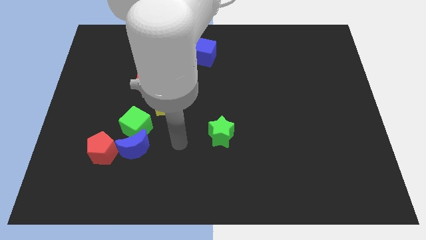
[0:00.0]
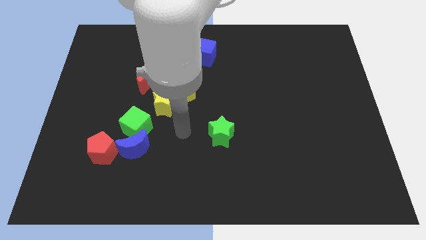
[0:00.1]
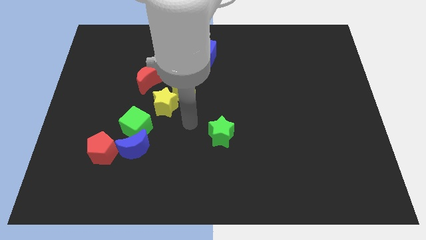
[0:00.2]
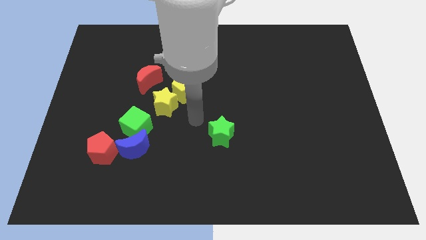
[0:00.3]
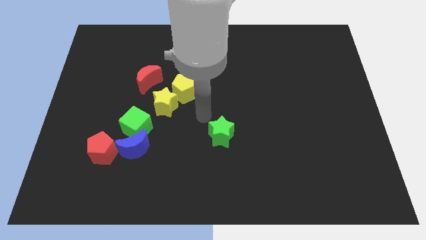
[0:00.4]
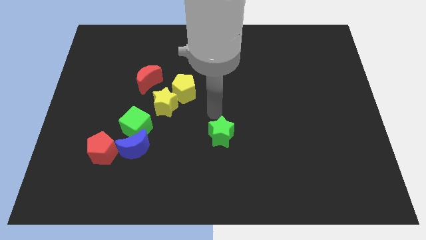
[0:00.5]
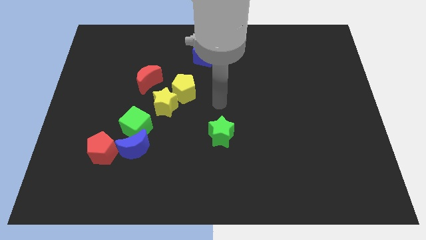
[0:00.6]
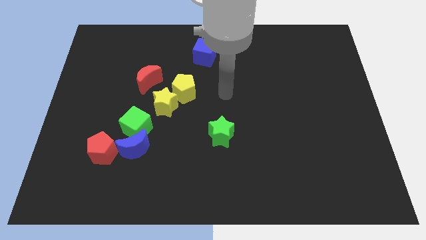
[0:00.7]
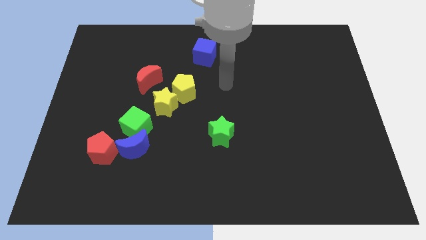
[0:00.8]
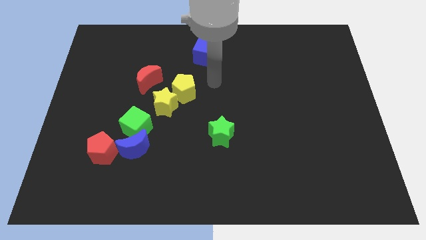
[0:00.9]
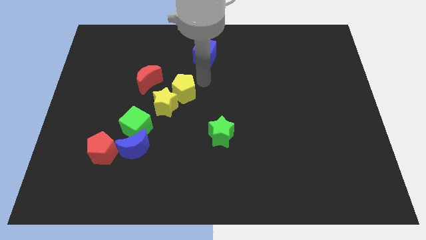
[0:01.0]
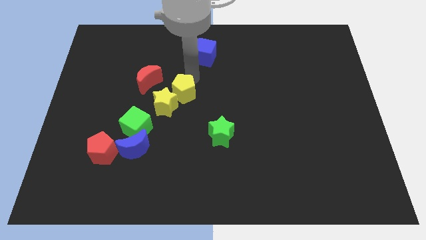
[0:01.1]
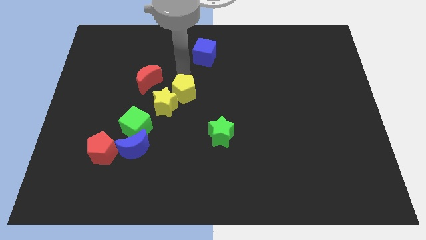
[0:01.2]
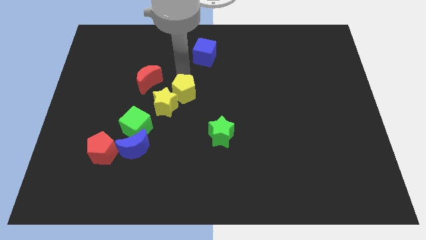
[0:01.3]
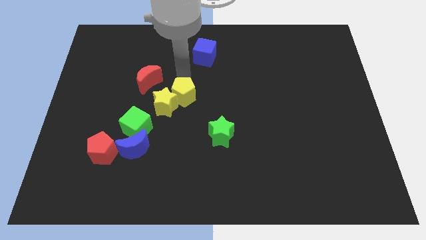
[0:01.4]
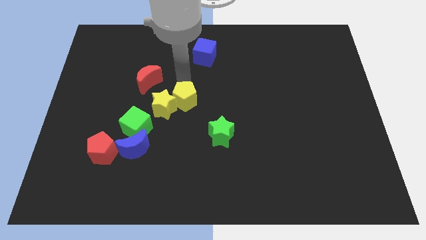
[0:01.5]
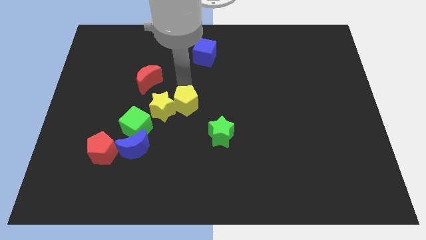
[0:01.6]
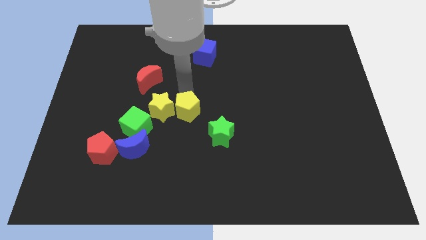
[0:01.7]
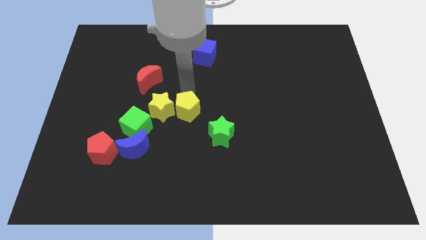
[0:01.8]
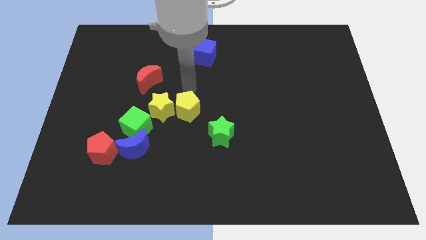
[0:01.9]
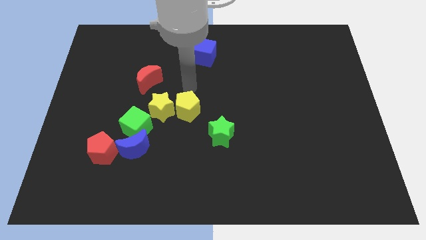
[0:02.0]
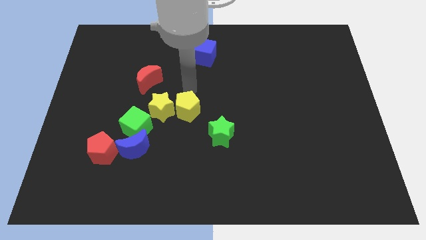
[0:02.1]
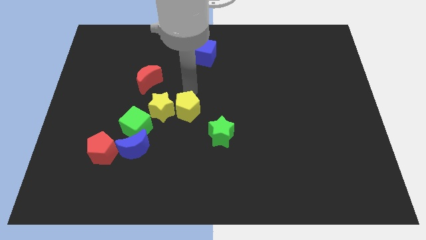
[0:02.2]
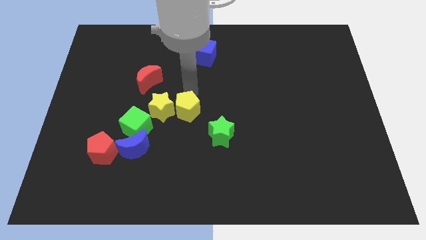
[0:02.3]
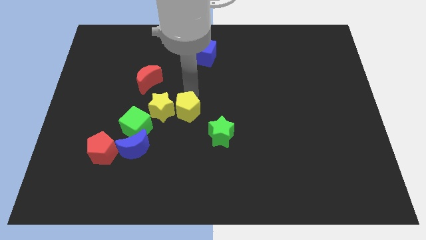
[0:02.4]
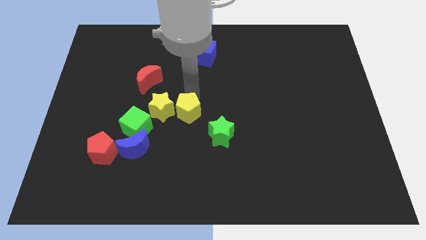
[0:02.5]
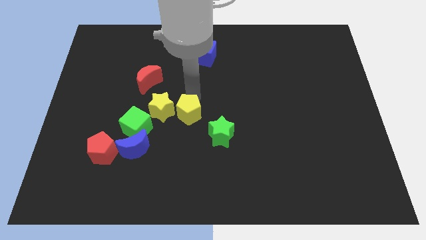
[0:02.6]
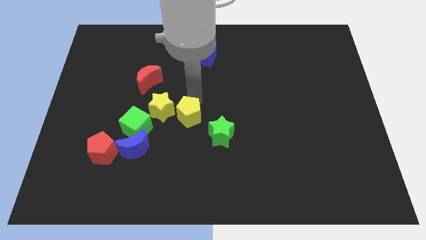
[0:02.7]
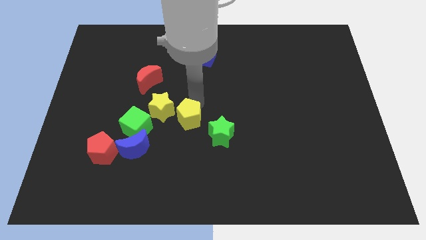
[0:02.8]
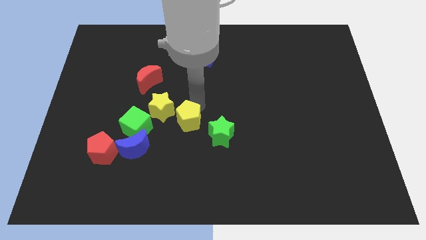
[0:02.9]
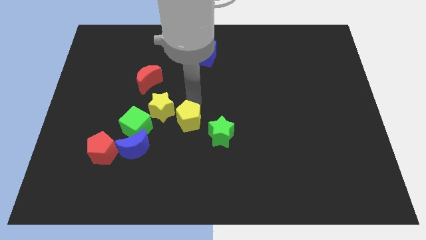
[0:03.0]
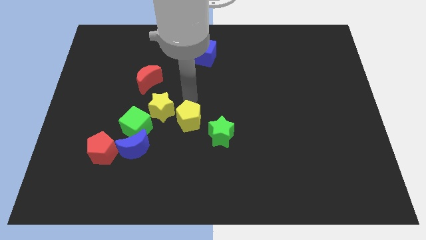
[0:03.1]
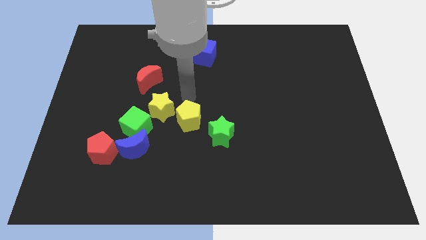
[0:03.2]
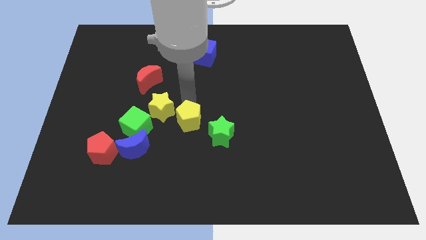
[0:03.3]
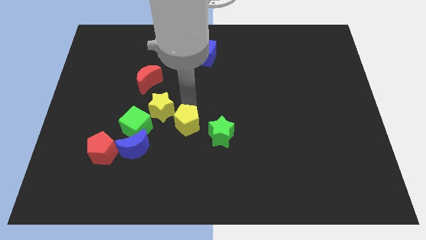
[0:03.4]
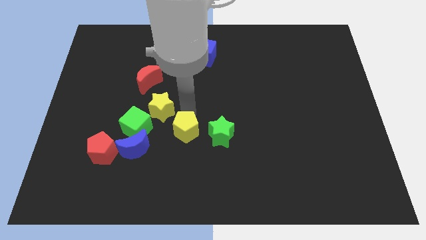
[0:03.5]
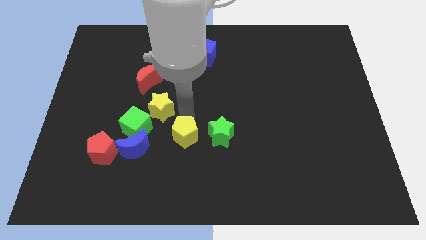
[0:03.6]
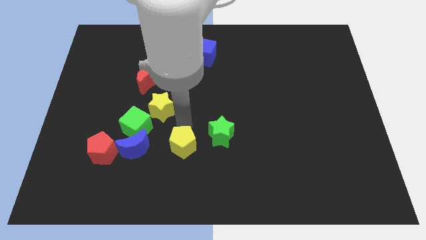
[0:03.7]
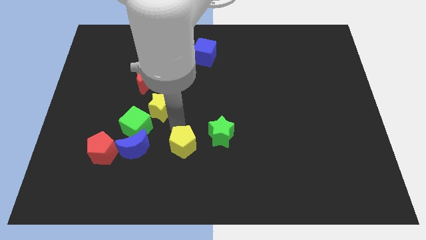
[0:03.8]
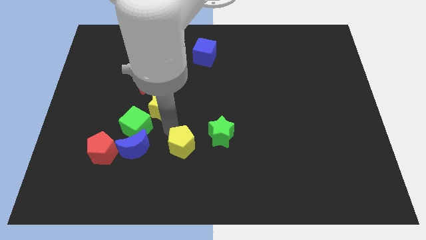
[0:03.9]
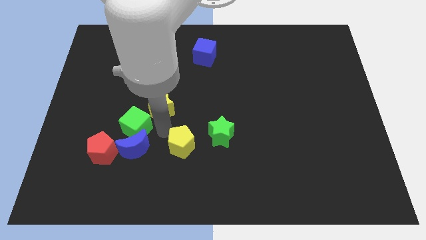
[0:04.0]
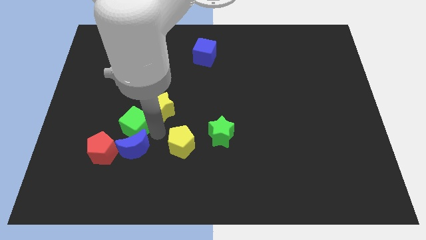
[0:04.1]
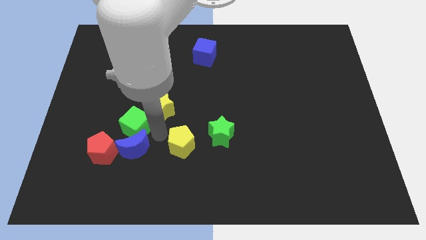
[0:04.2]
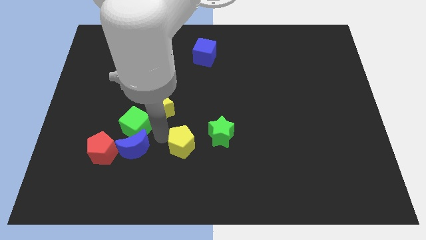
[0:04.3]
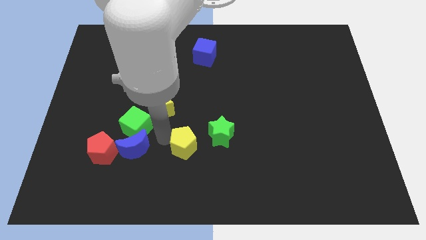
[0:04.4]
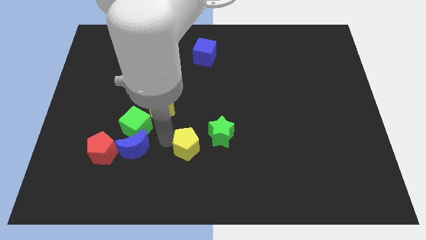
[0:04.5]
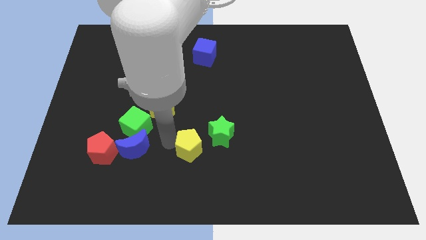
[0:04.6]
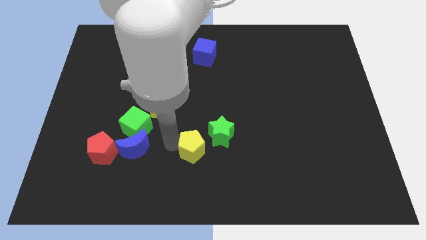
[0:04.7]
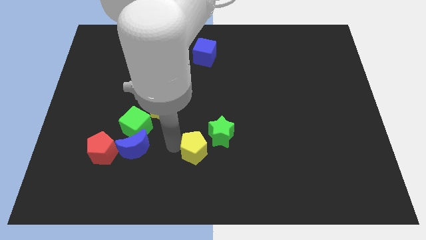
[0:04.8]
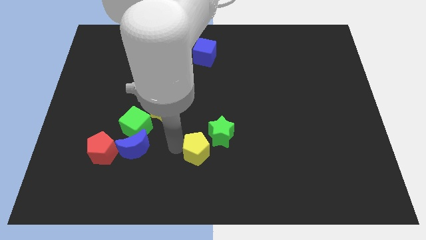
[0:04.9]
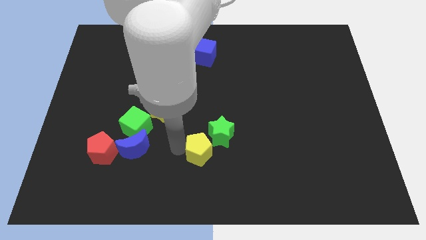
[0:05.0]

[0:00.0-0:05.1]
slide the yellow pentagon below the green star

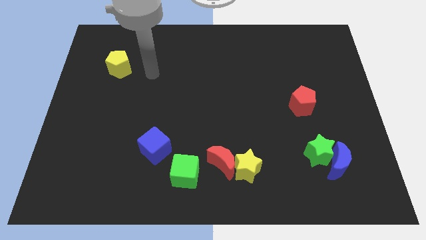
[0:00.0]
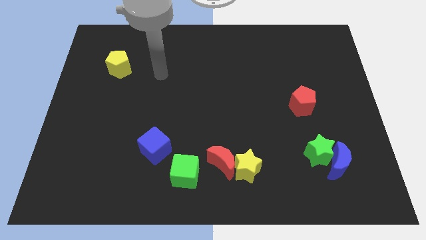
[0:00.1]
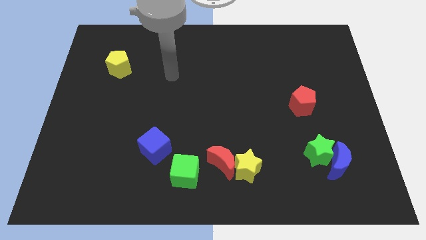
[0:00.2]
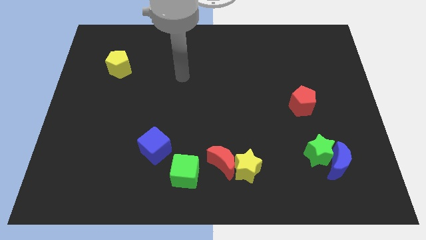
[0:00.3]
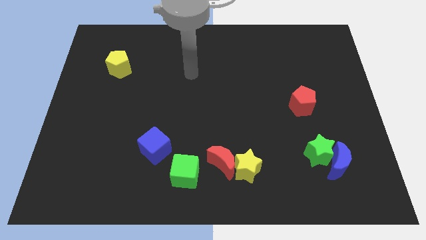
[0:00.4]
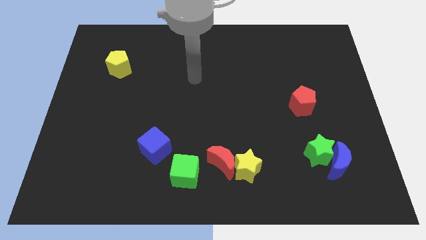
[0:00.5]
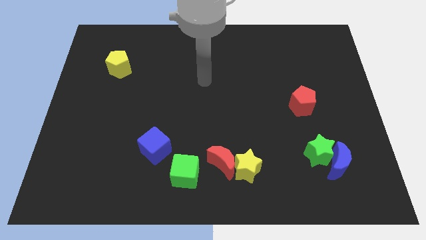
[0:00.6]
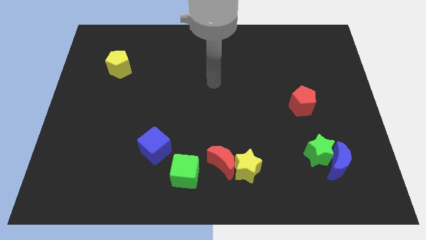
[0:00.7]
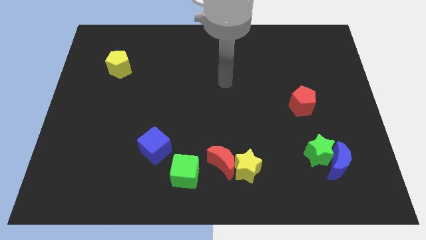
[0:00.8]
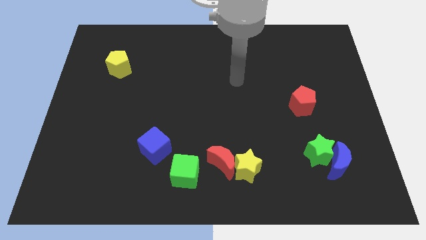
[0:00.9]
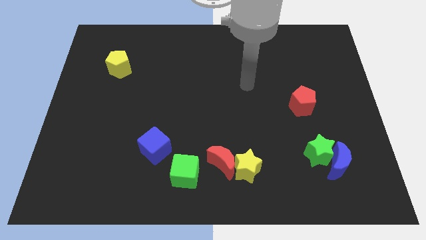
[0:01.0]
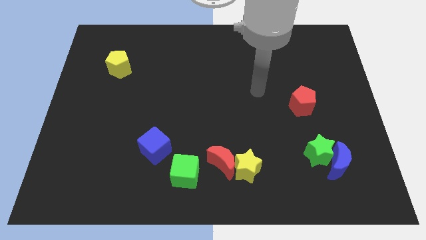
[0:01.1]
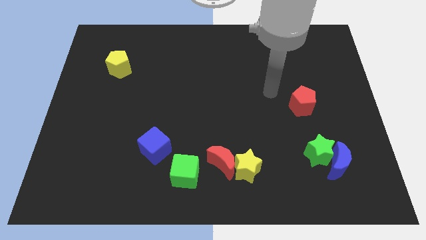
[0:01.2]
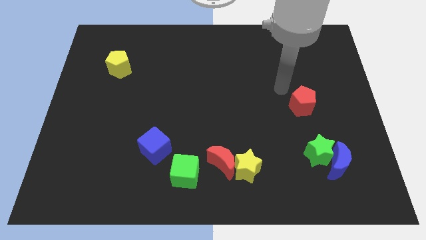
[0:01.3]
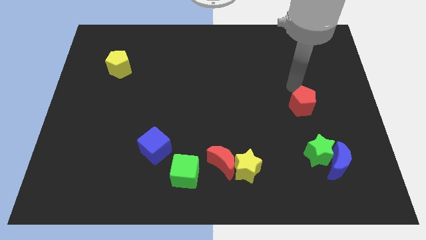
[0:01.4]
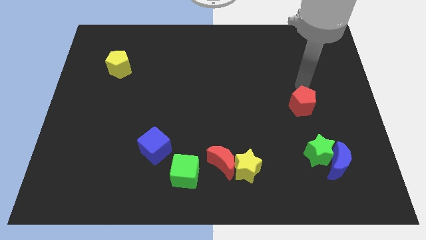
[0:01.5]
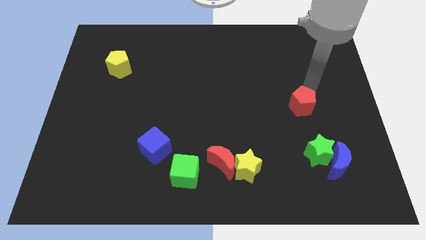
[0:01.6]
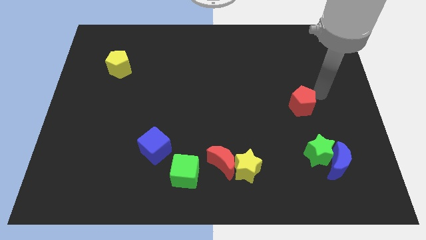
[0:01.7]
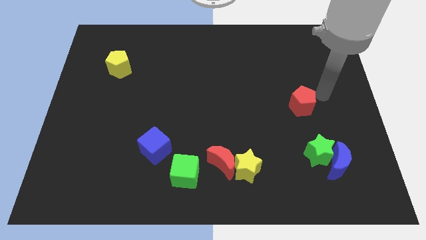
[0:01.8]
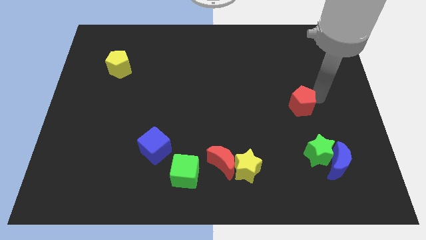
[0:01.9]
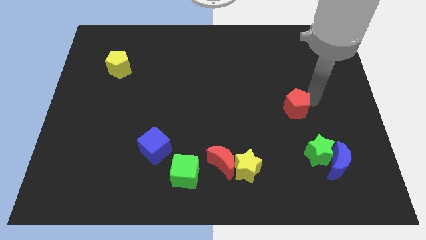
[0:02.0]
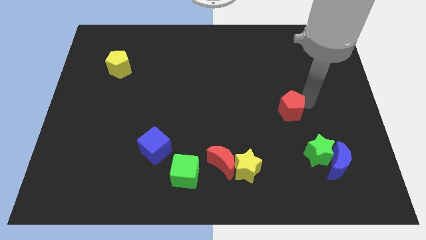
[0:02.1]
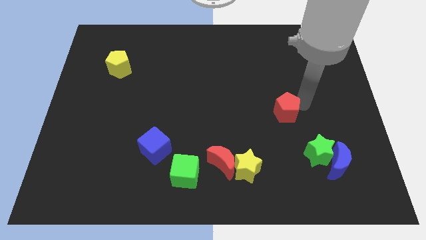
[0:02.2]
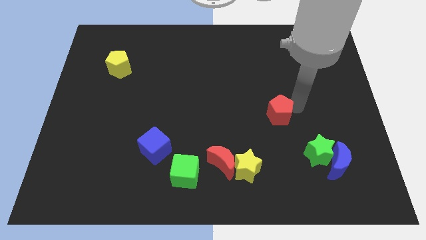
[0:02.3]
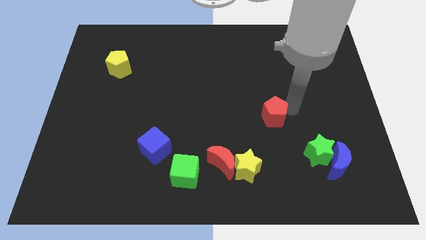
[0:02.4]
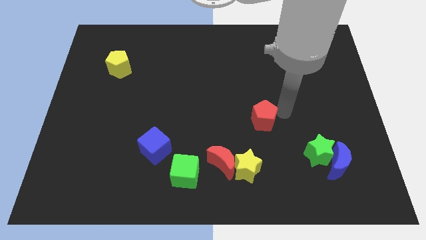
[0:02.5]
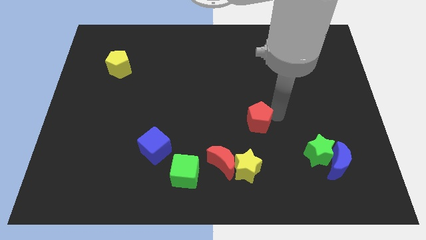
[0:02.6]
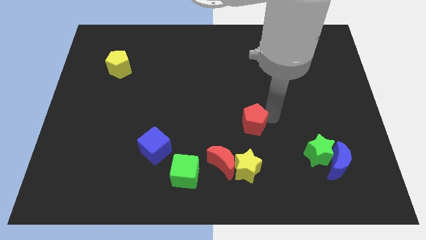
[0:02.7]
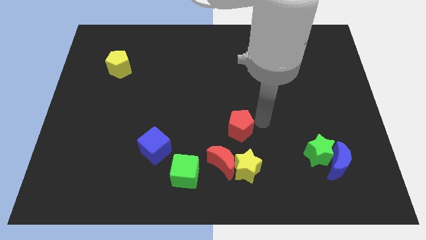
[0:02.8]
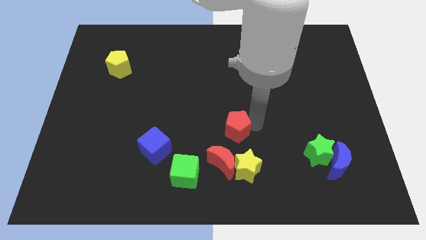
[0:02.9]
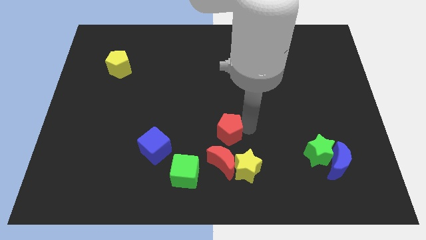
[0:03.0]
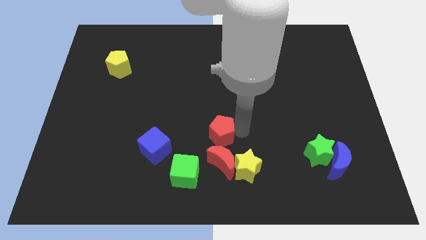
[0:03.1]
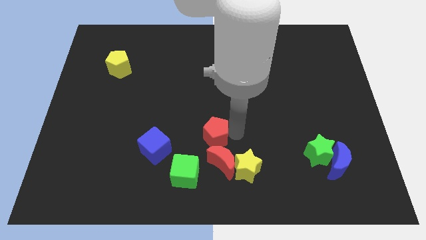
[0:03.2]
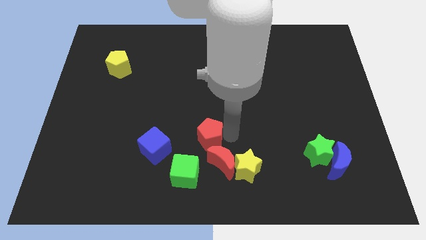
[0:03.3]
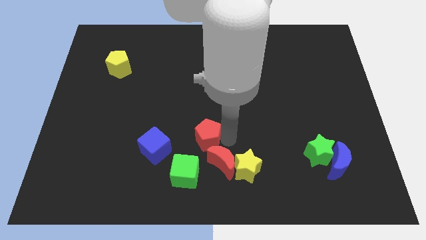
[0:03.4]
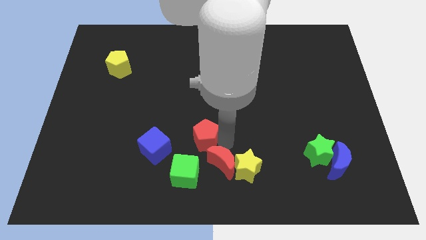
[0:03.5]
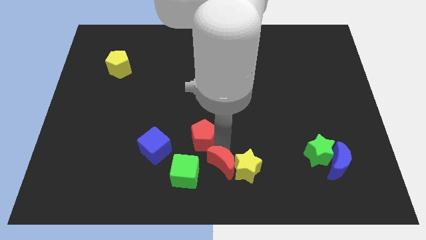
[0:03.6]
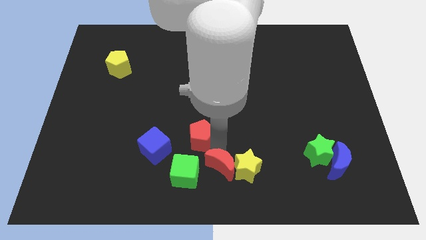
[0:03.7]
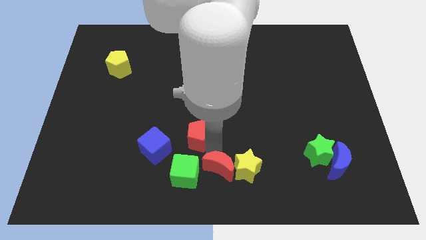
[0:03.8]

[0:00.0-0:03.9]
move the red pentagon to the top right side of the blue cube
